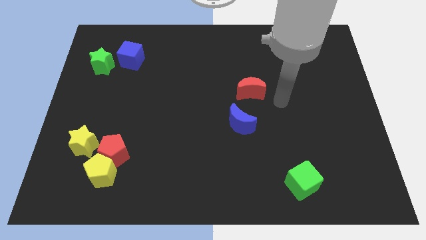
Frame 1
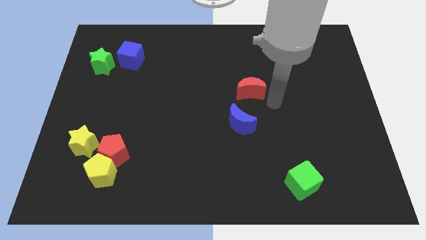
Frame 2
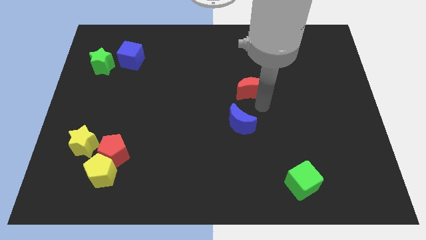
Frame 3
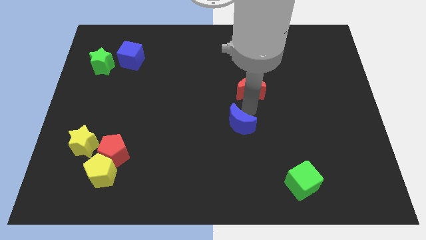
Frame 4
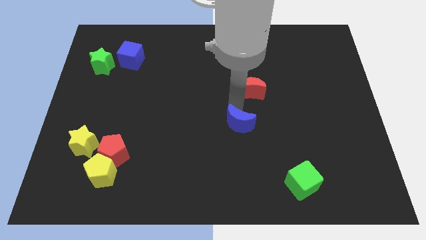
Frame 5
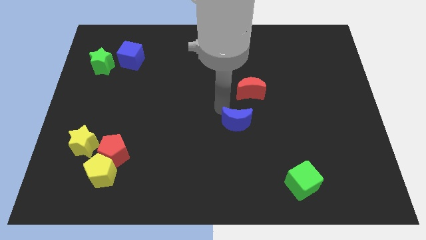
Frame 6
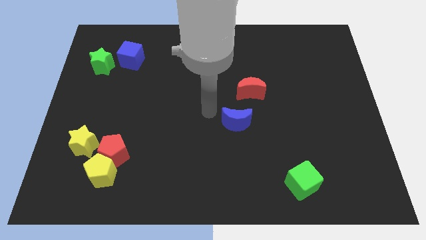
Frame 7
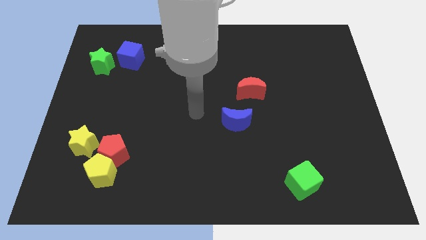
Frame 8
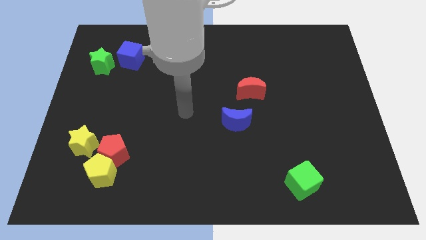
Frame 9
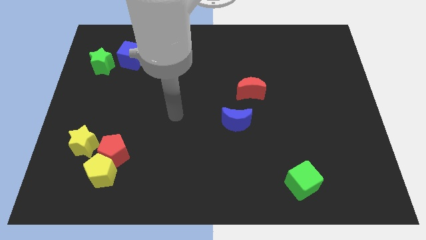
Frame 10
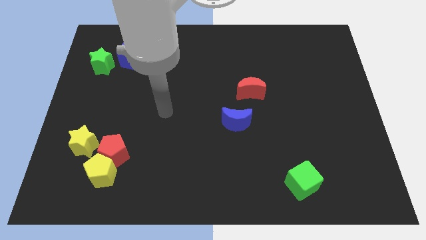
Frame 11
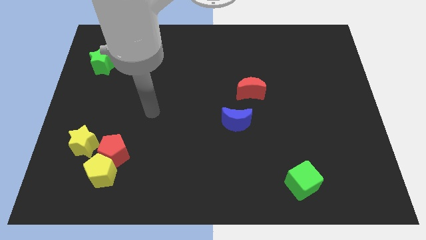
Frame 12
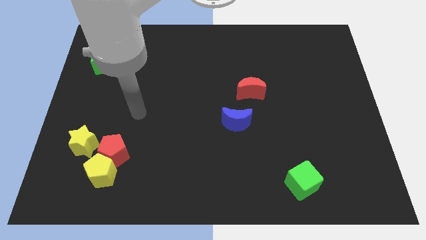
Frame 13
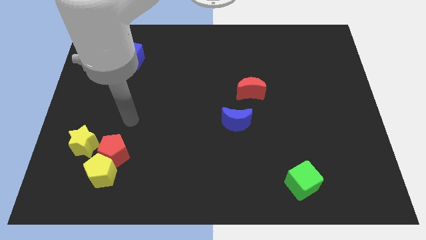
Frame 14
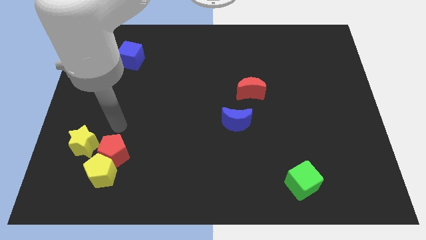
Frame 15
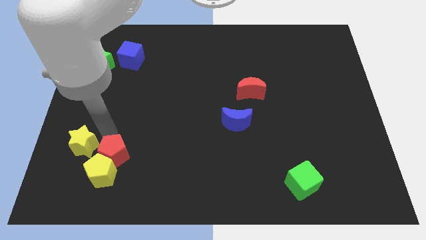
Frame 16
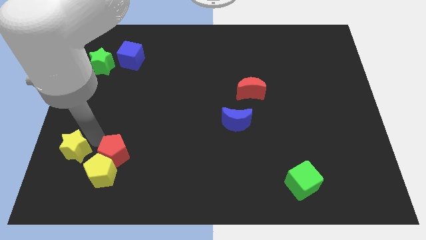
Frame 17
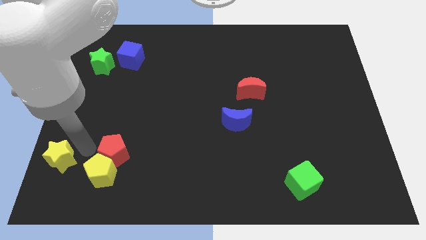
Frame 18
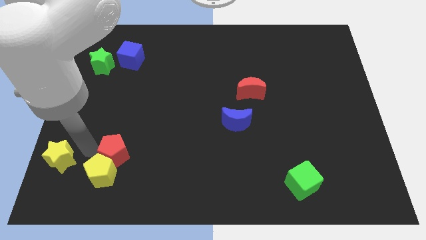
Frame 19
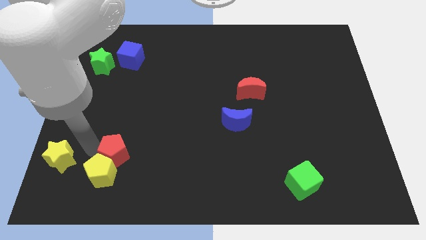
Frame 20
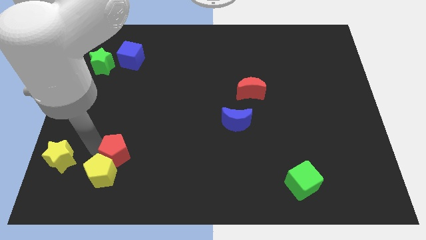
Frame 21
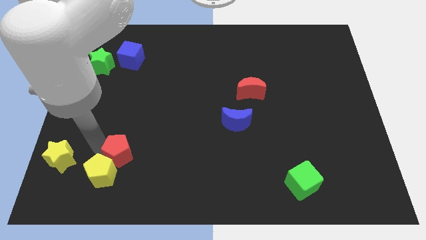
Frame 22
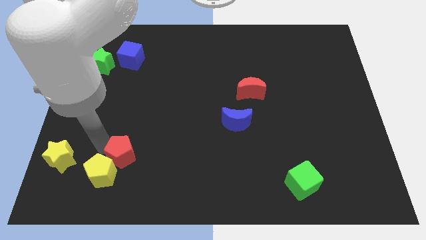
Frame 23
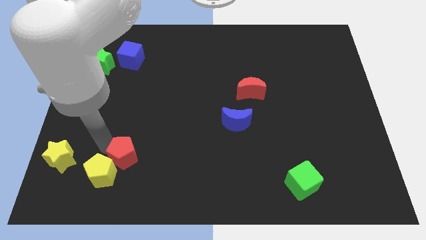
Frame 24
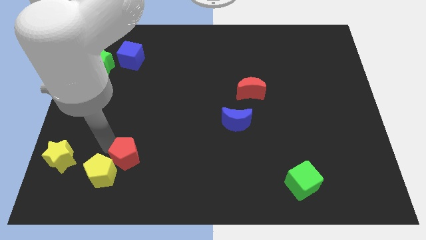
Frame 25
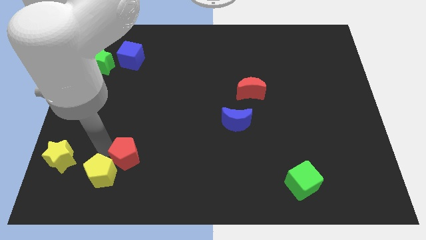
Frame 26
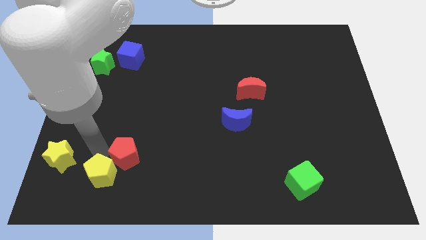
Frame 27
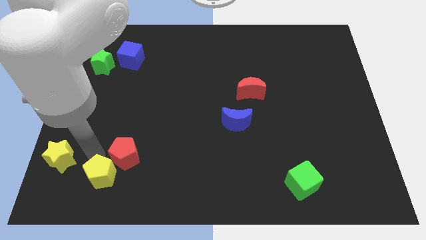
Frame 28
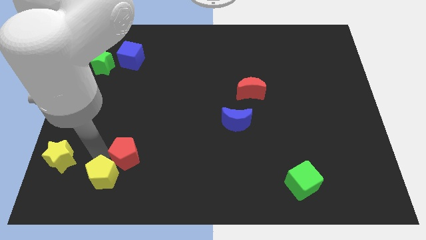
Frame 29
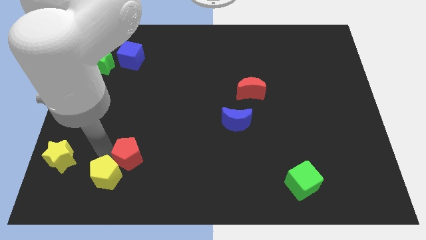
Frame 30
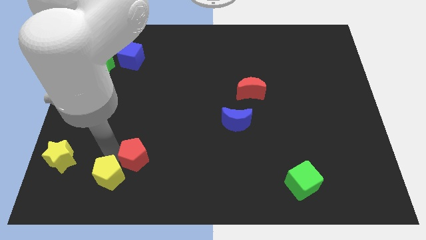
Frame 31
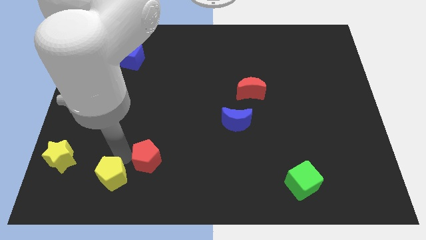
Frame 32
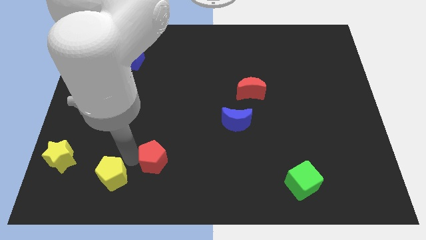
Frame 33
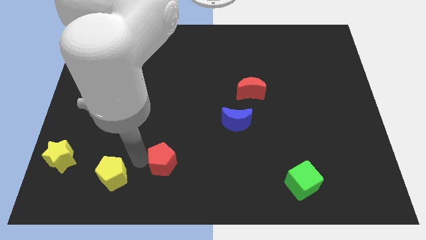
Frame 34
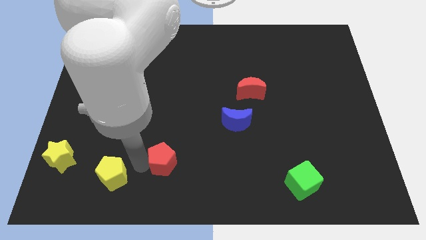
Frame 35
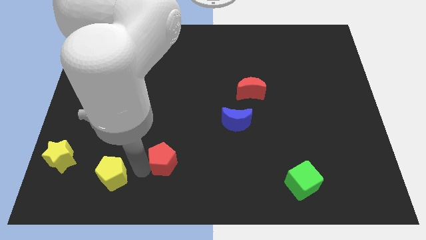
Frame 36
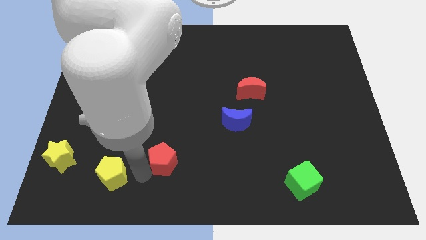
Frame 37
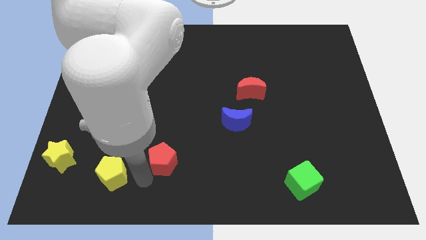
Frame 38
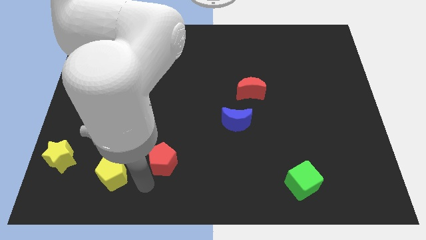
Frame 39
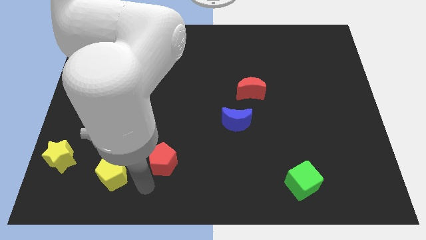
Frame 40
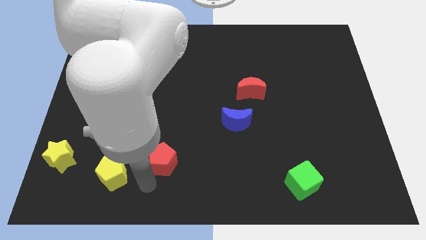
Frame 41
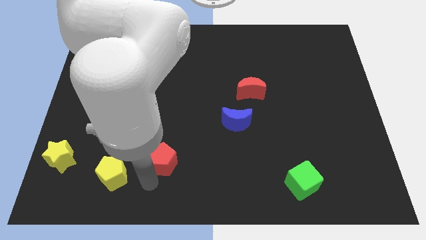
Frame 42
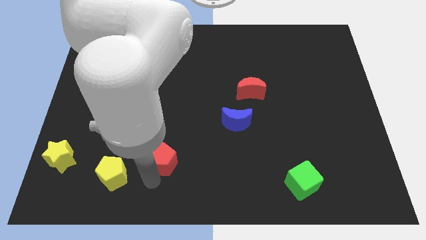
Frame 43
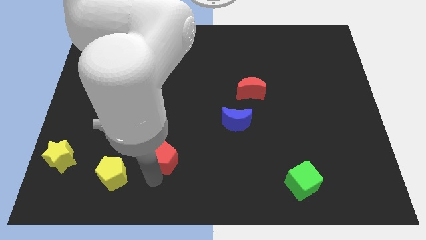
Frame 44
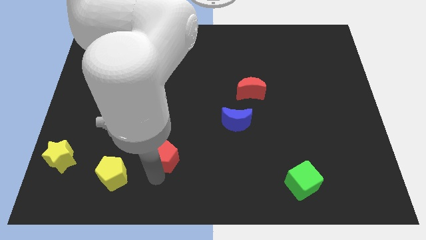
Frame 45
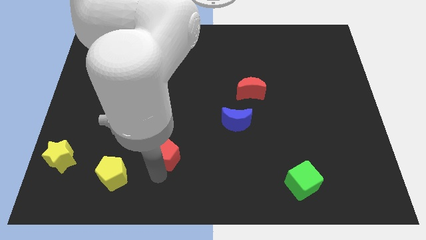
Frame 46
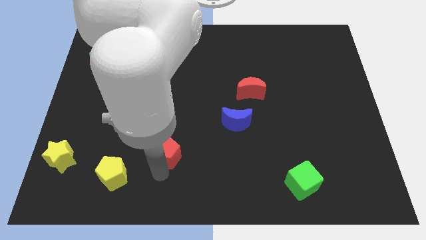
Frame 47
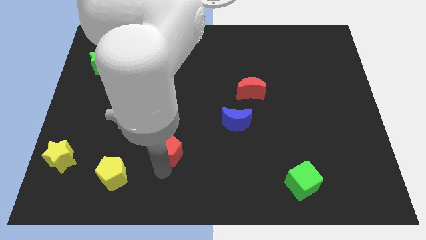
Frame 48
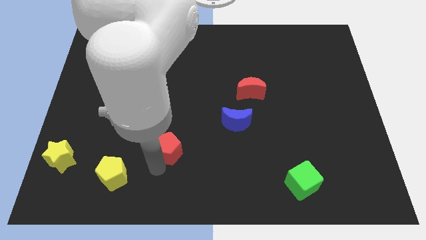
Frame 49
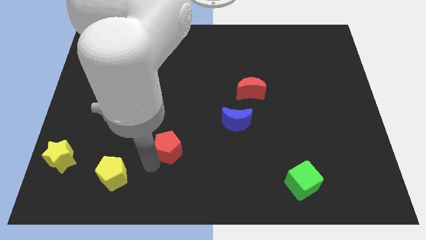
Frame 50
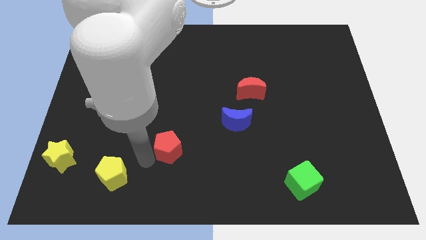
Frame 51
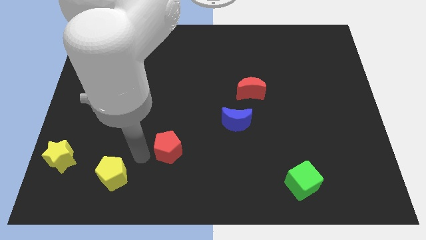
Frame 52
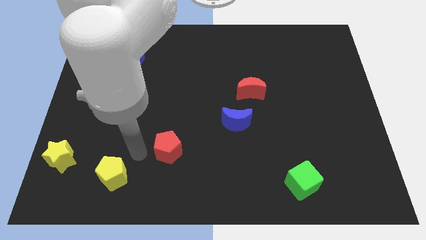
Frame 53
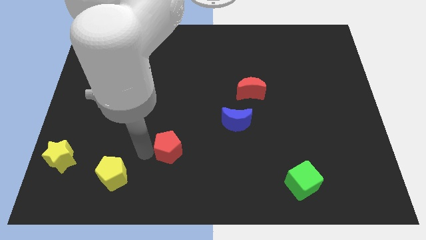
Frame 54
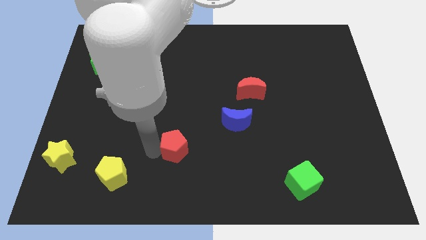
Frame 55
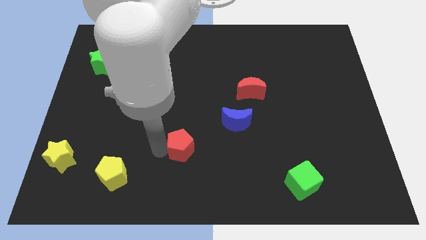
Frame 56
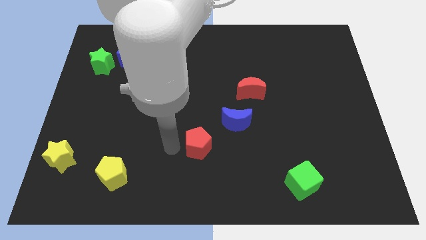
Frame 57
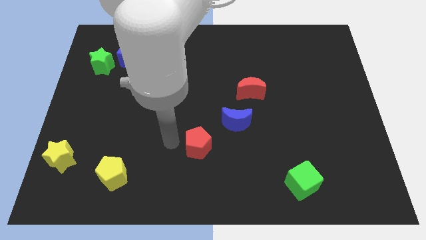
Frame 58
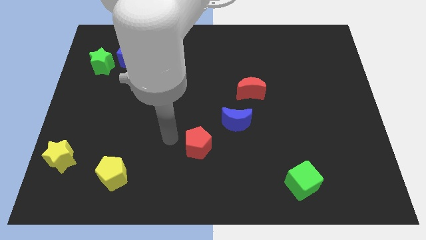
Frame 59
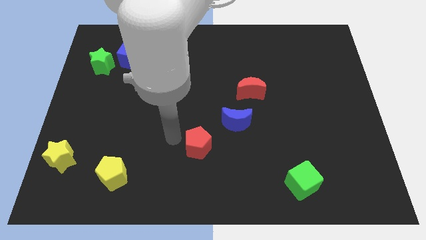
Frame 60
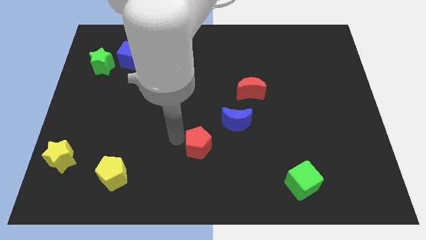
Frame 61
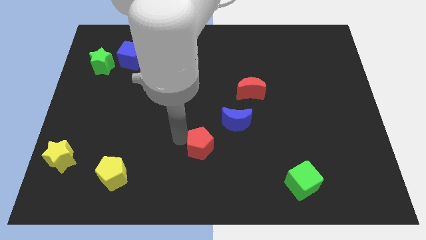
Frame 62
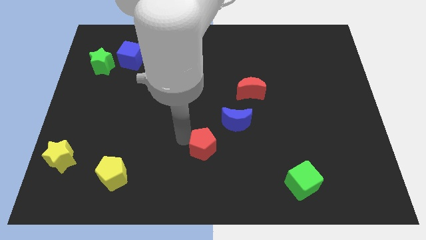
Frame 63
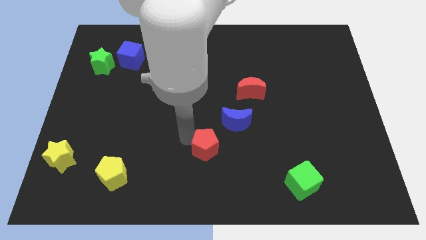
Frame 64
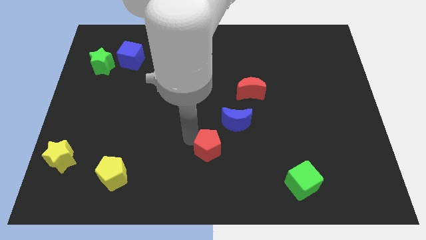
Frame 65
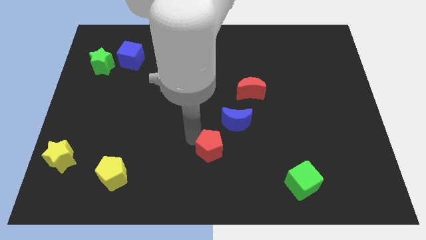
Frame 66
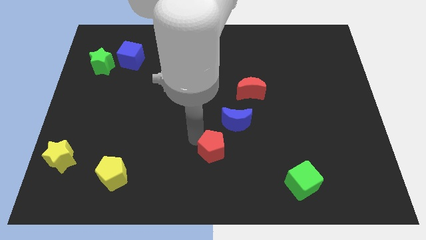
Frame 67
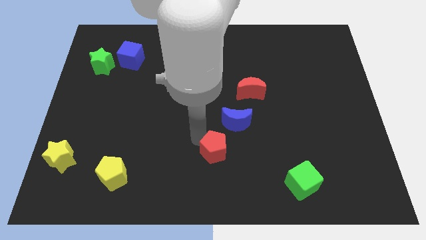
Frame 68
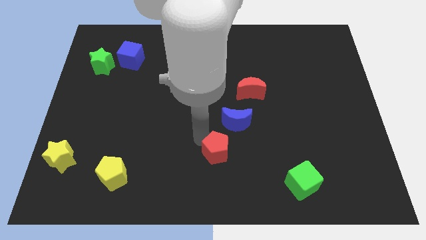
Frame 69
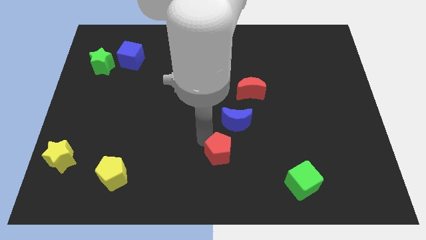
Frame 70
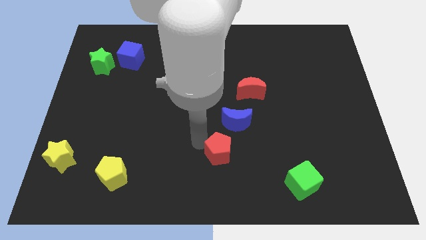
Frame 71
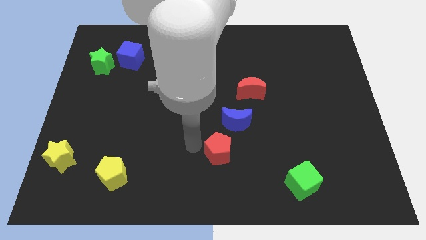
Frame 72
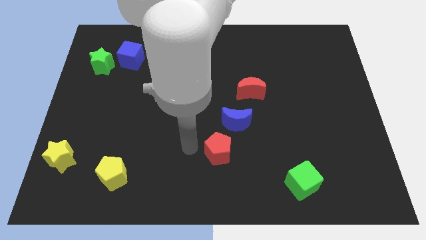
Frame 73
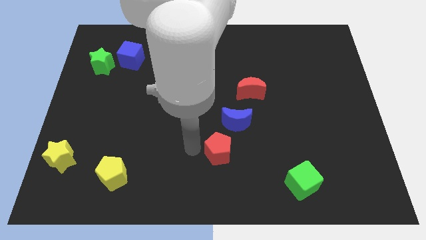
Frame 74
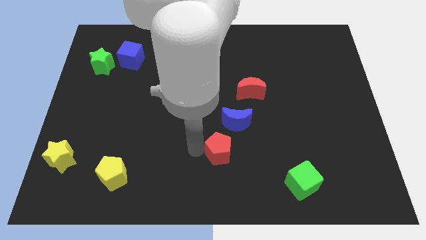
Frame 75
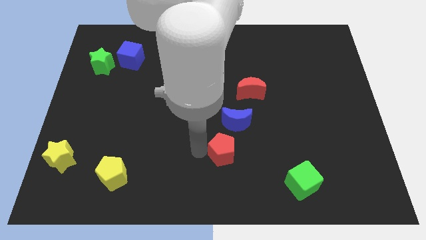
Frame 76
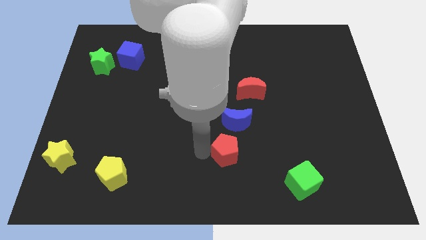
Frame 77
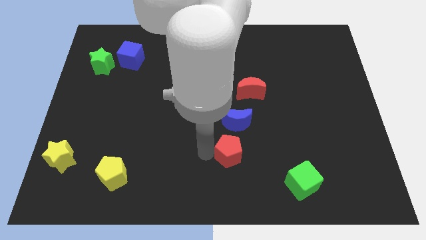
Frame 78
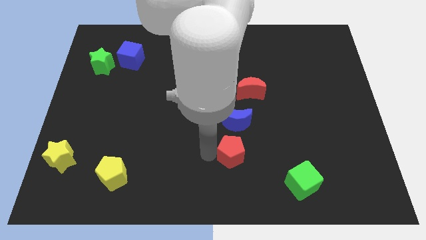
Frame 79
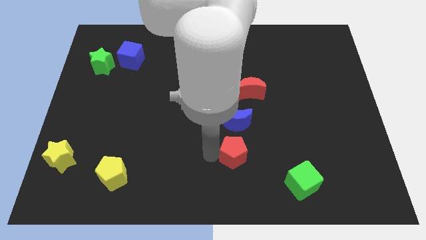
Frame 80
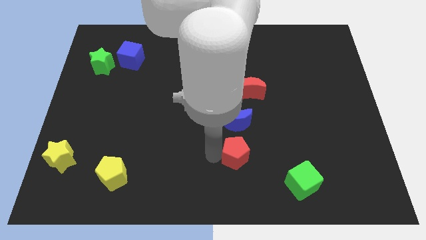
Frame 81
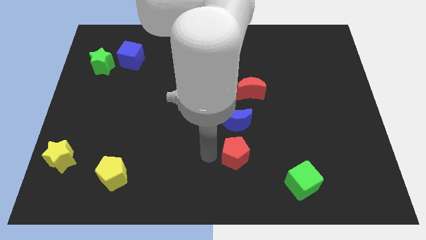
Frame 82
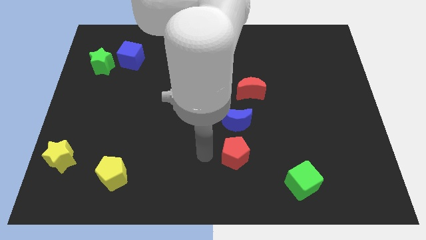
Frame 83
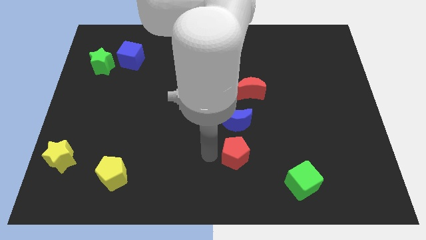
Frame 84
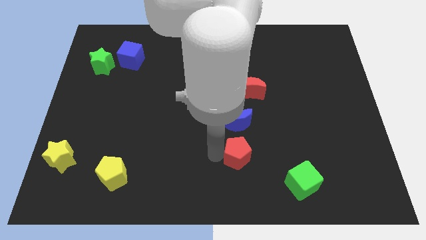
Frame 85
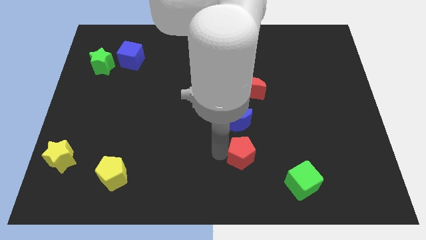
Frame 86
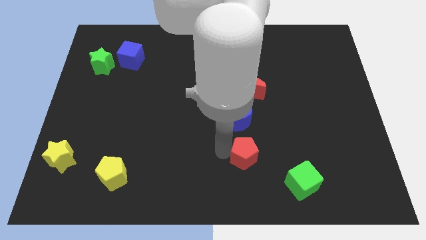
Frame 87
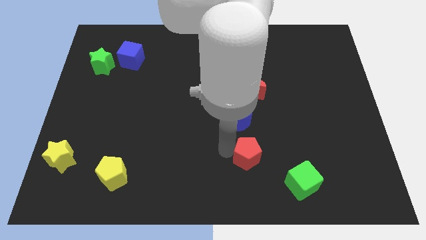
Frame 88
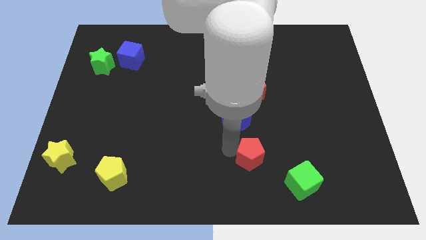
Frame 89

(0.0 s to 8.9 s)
slide the red pentagon to the top left side of the green cube
